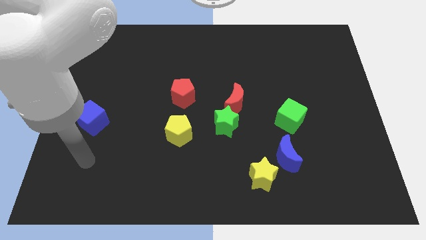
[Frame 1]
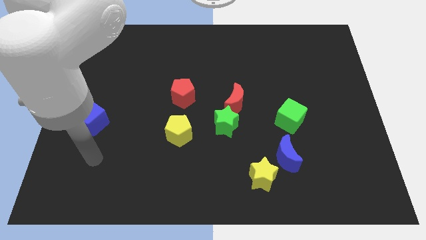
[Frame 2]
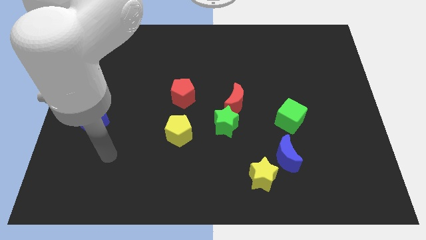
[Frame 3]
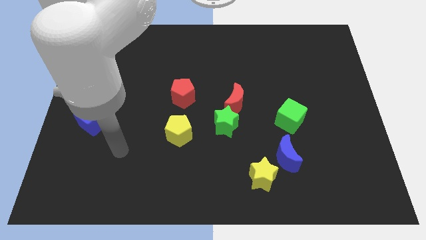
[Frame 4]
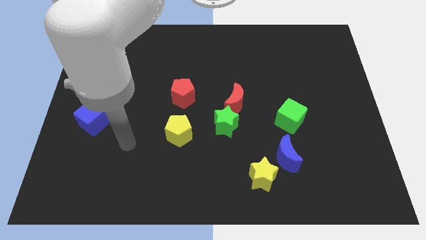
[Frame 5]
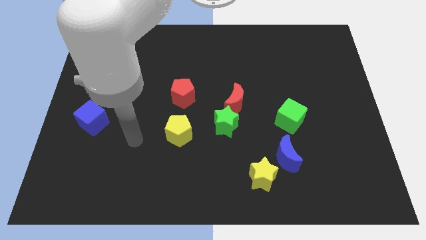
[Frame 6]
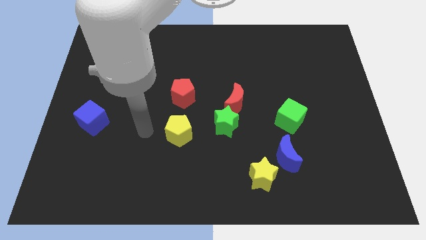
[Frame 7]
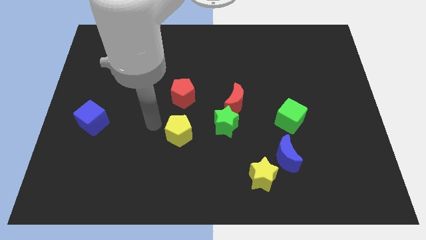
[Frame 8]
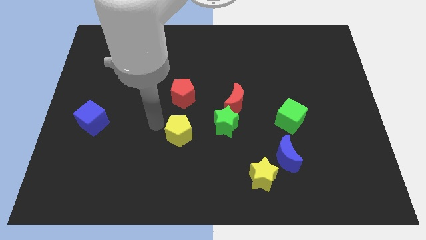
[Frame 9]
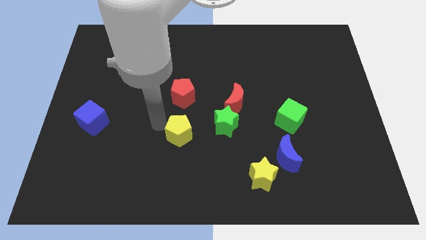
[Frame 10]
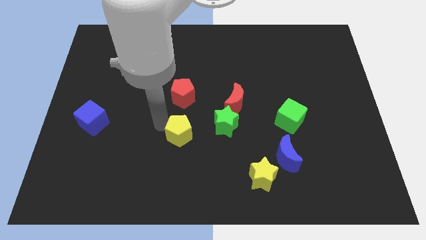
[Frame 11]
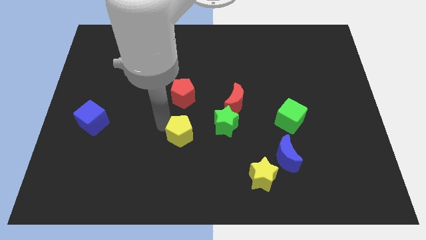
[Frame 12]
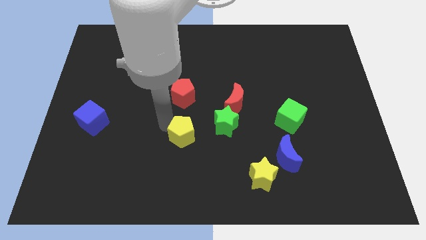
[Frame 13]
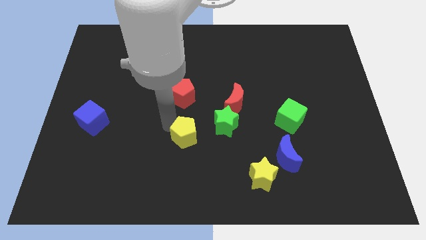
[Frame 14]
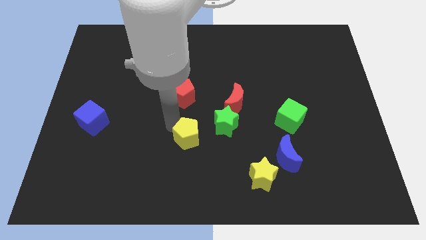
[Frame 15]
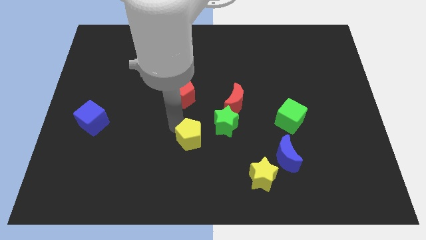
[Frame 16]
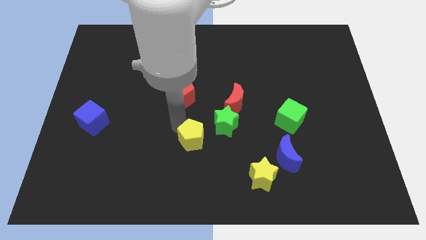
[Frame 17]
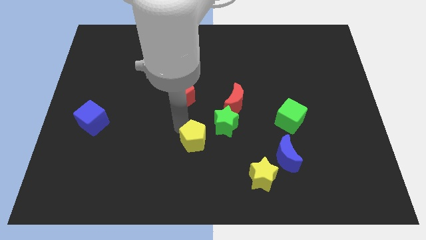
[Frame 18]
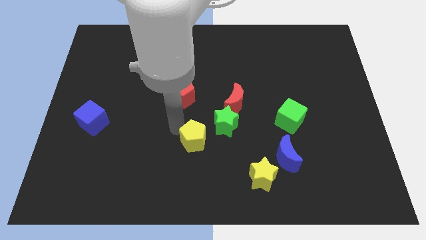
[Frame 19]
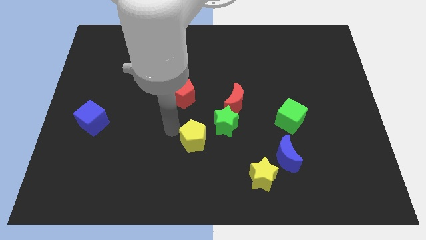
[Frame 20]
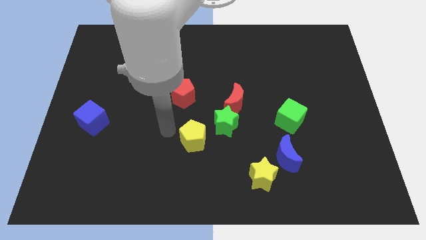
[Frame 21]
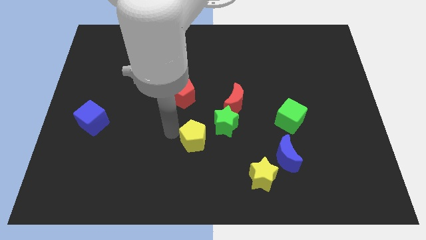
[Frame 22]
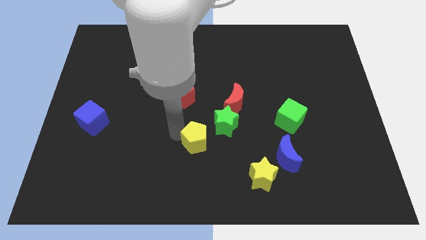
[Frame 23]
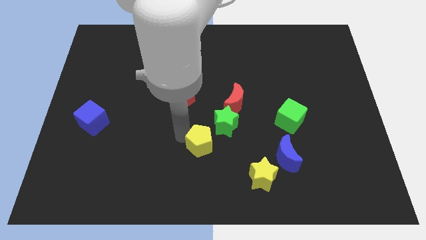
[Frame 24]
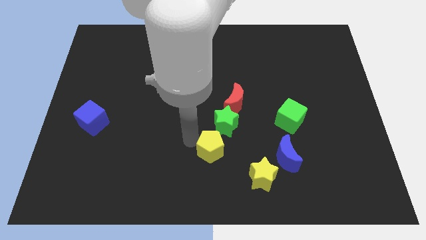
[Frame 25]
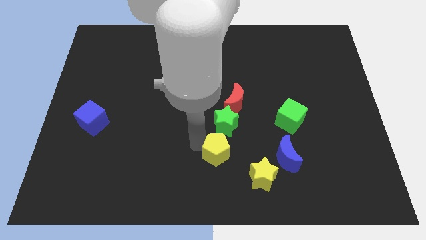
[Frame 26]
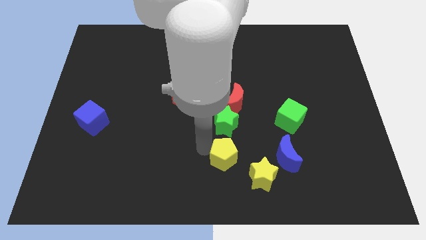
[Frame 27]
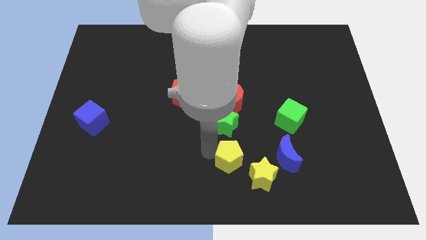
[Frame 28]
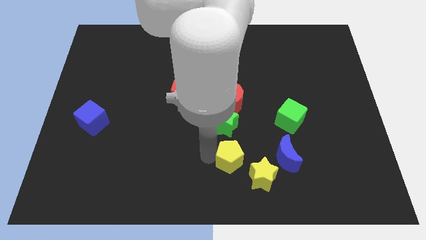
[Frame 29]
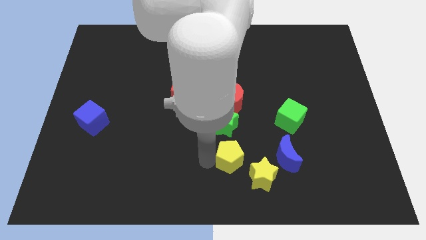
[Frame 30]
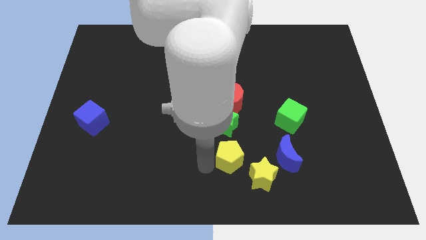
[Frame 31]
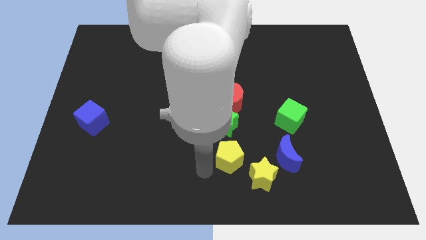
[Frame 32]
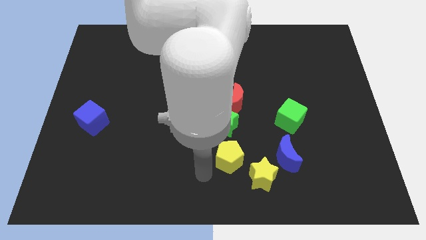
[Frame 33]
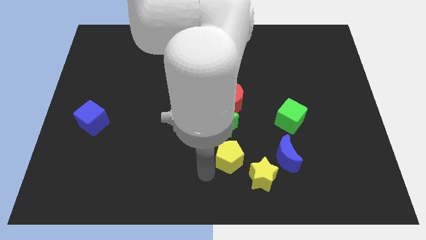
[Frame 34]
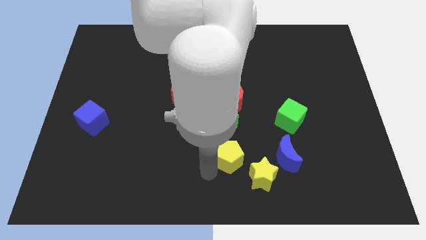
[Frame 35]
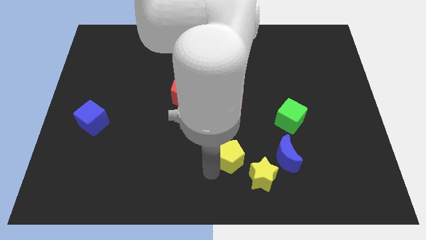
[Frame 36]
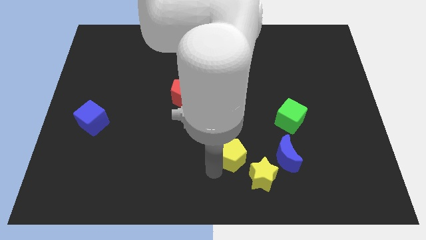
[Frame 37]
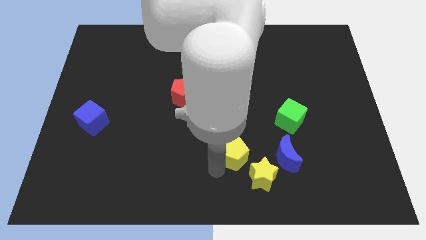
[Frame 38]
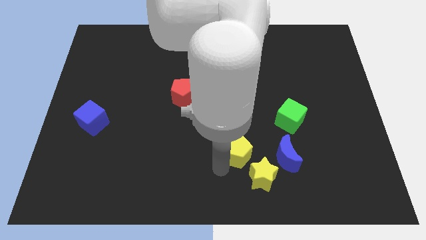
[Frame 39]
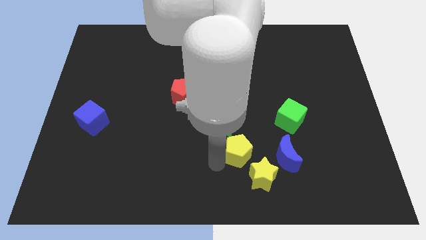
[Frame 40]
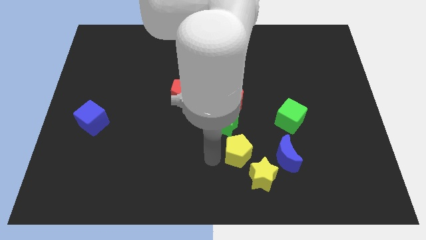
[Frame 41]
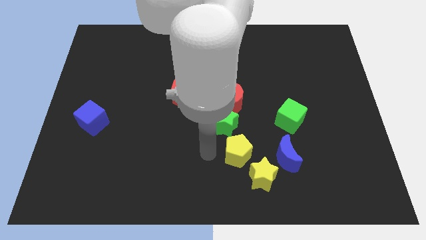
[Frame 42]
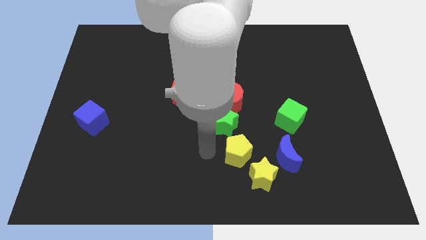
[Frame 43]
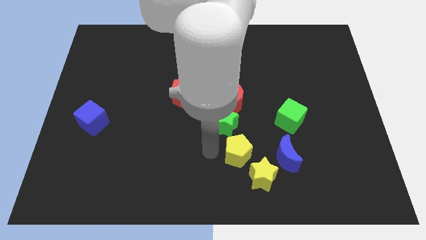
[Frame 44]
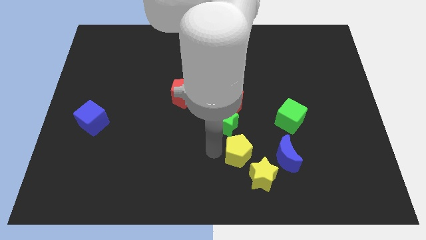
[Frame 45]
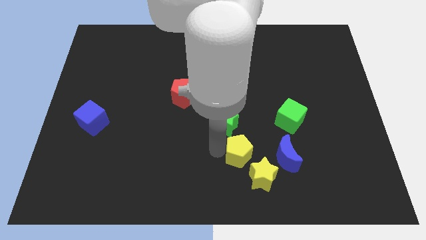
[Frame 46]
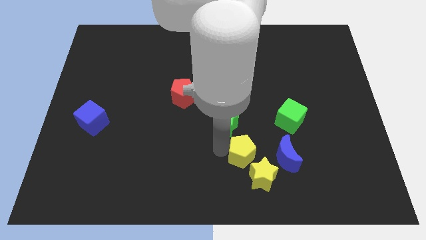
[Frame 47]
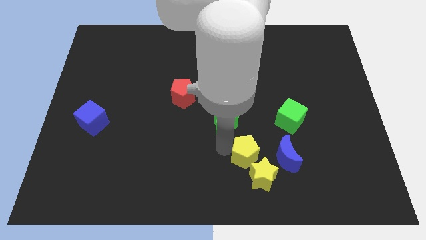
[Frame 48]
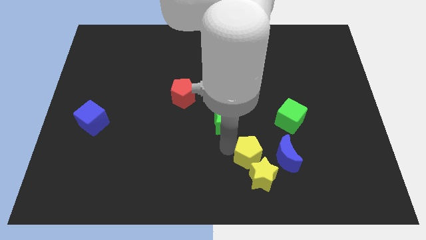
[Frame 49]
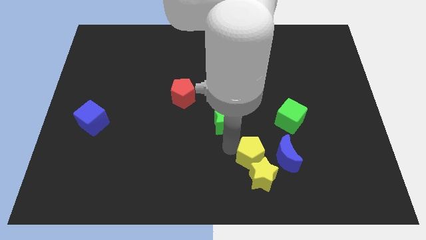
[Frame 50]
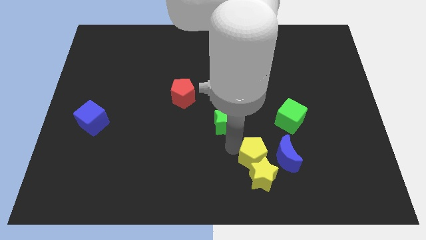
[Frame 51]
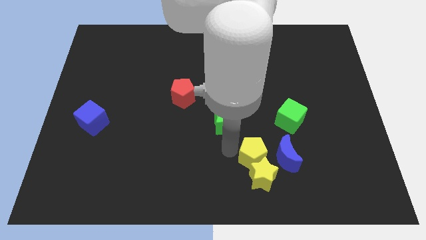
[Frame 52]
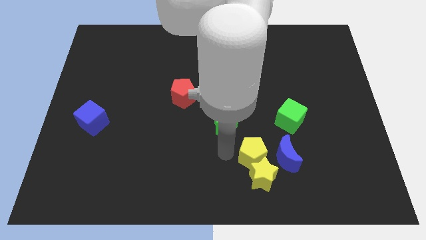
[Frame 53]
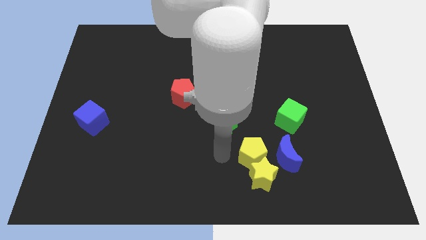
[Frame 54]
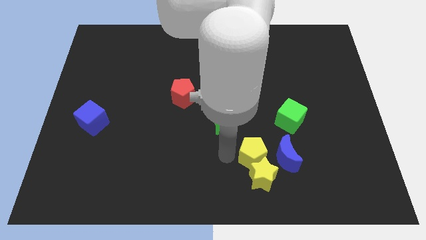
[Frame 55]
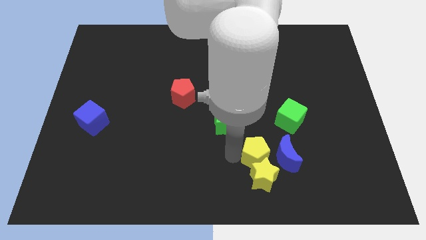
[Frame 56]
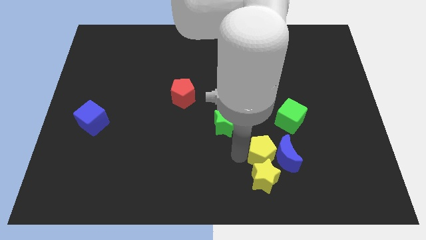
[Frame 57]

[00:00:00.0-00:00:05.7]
put the yellow pentagon towards the blue moon

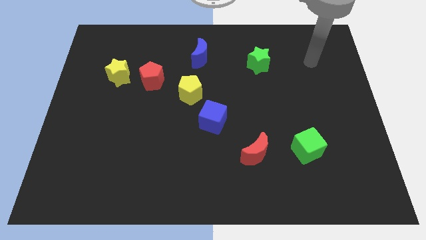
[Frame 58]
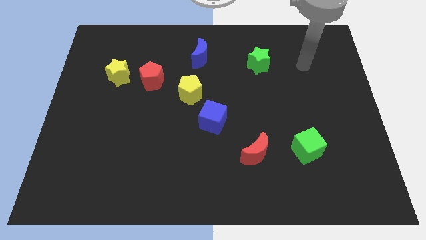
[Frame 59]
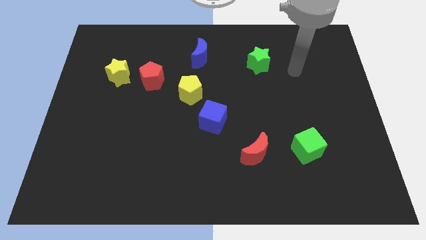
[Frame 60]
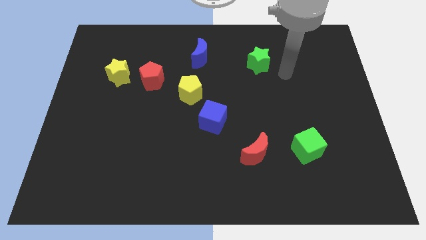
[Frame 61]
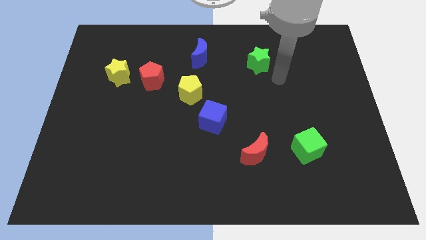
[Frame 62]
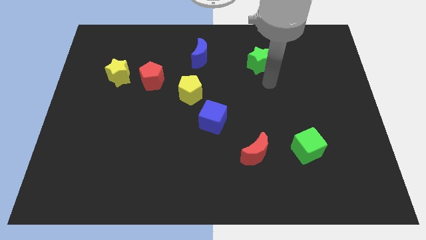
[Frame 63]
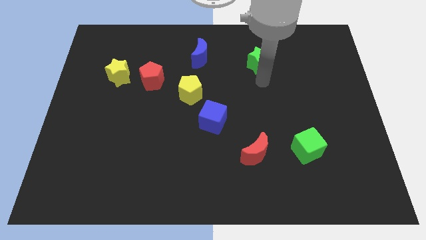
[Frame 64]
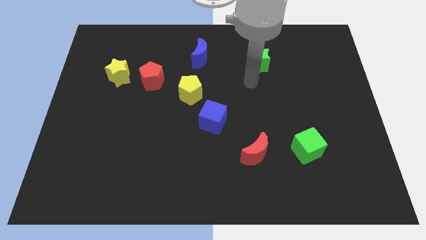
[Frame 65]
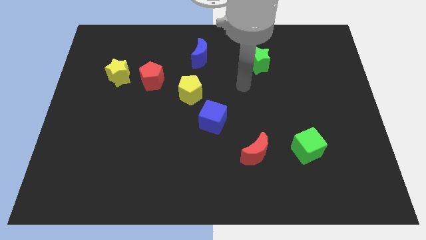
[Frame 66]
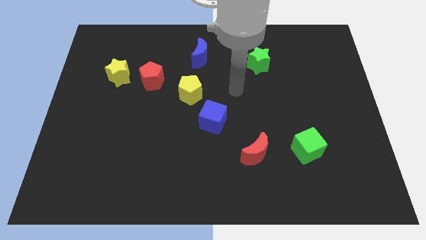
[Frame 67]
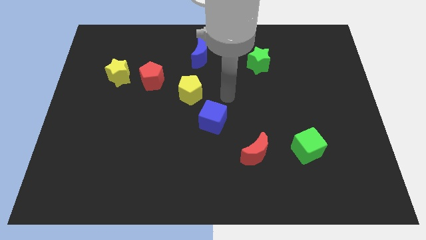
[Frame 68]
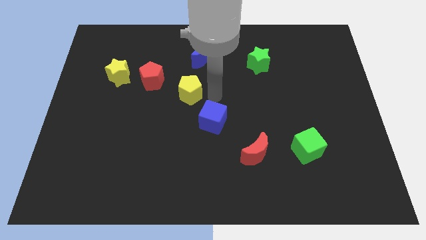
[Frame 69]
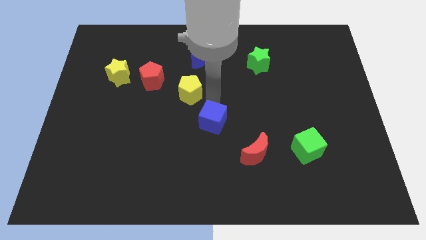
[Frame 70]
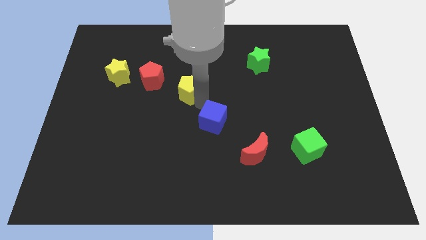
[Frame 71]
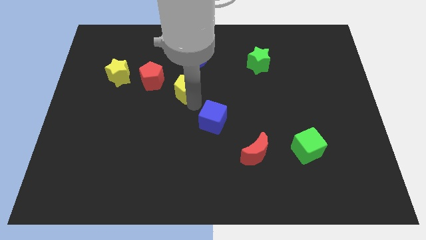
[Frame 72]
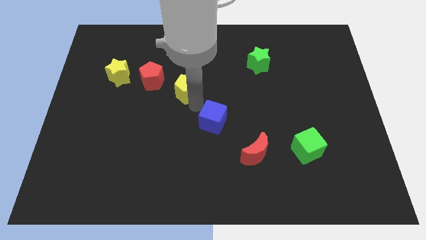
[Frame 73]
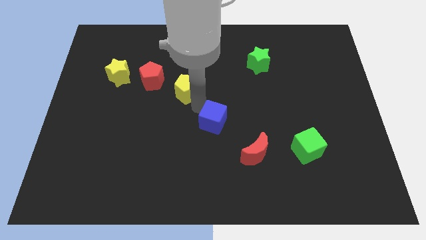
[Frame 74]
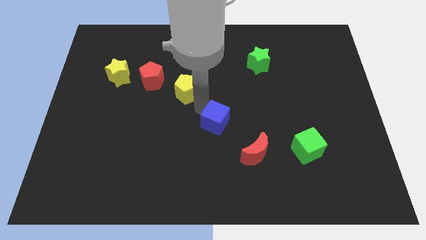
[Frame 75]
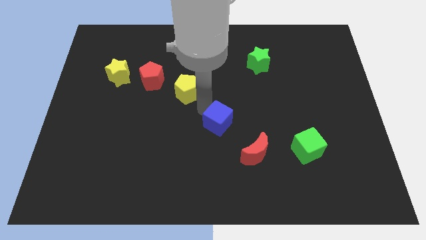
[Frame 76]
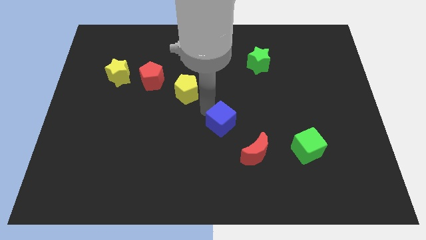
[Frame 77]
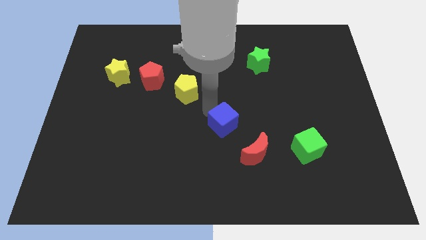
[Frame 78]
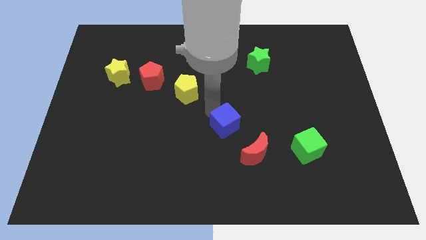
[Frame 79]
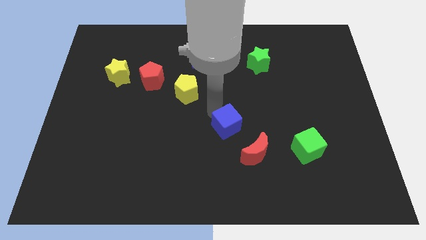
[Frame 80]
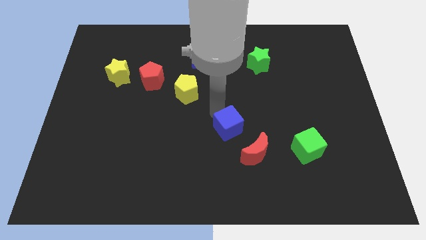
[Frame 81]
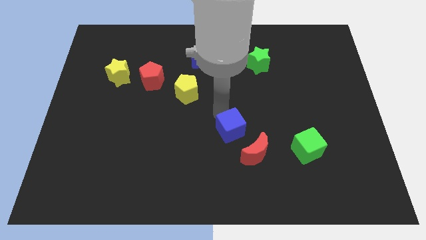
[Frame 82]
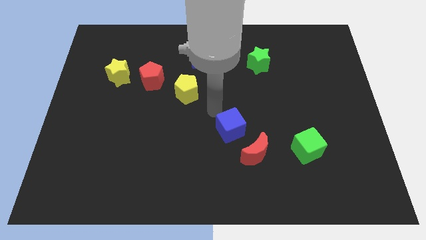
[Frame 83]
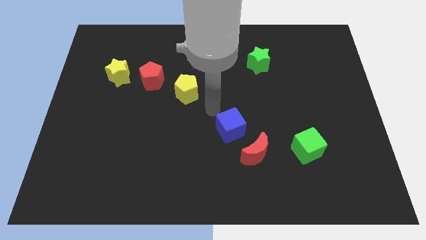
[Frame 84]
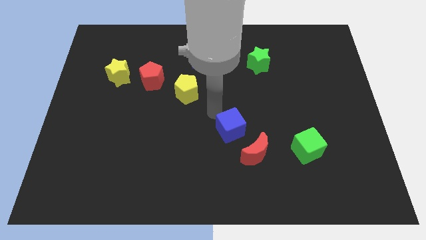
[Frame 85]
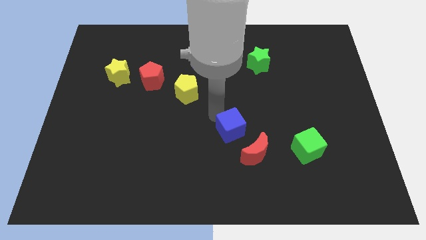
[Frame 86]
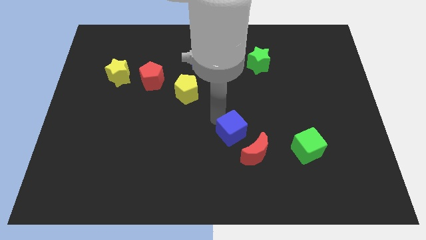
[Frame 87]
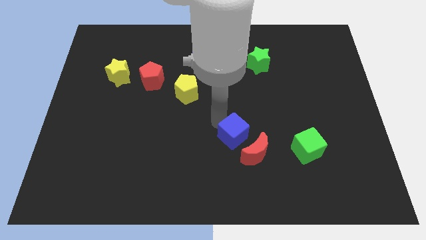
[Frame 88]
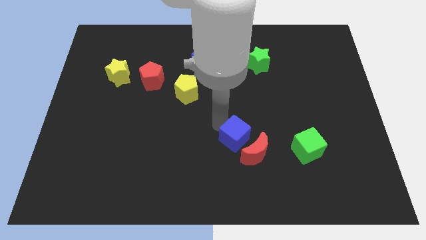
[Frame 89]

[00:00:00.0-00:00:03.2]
put the blue cube to the red moon
